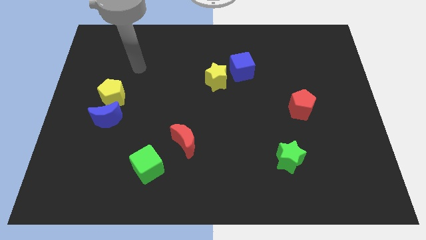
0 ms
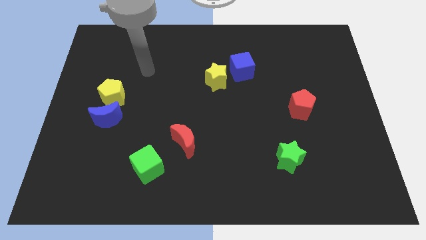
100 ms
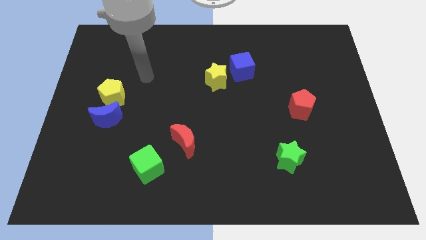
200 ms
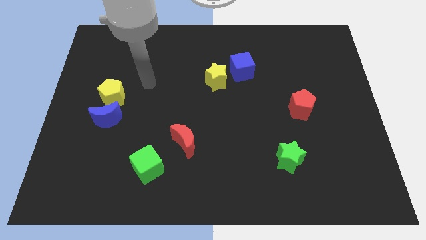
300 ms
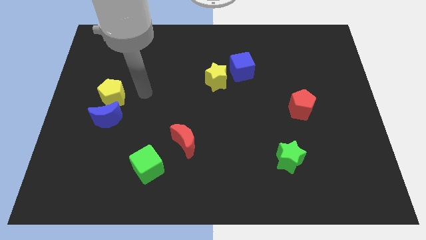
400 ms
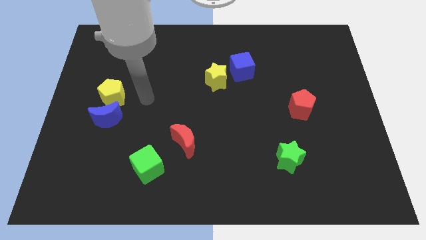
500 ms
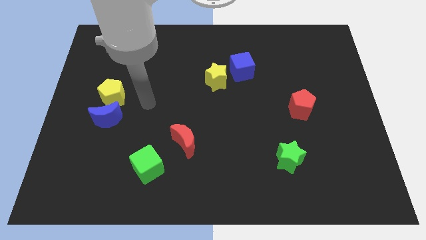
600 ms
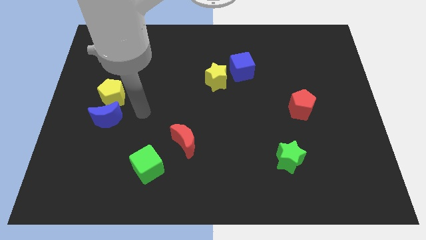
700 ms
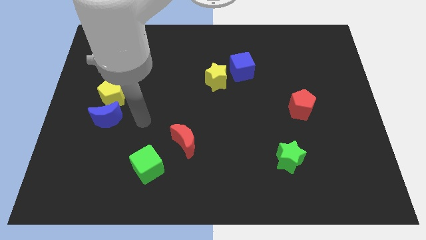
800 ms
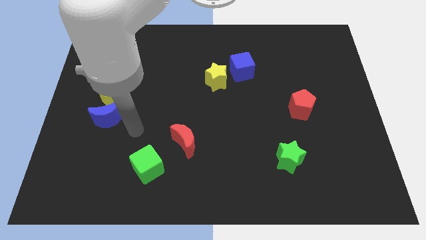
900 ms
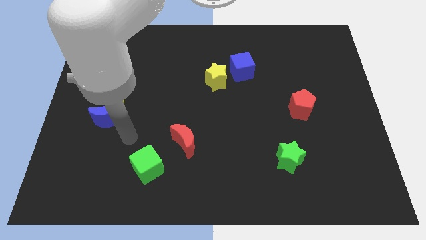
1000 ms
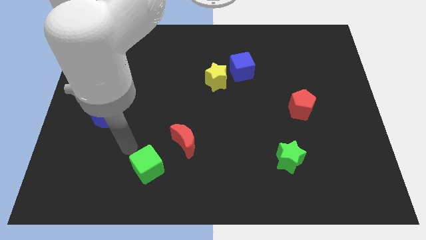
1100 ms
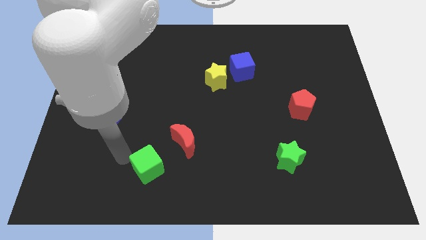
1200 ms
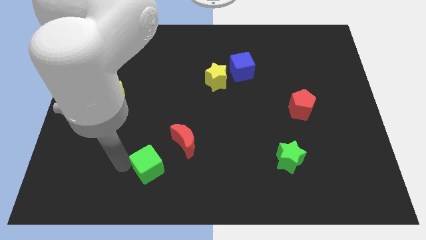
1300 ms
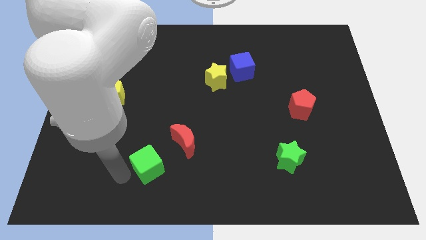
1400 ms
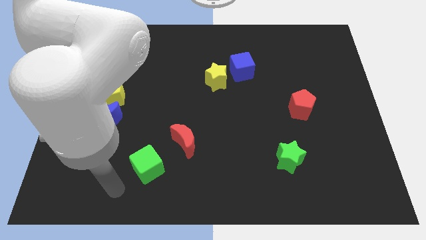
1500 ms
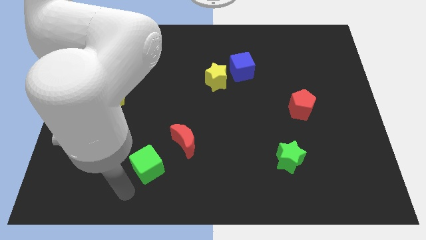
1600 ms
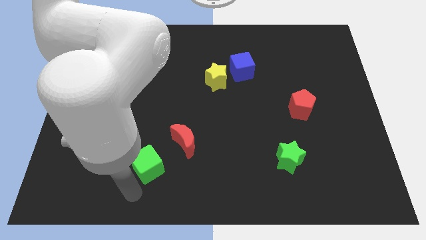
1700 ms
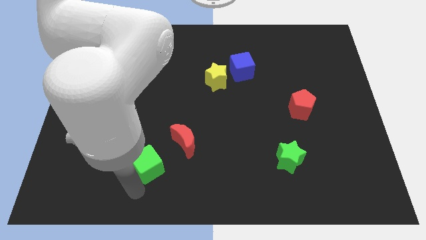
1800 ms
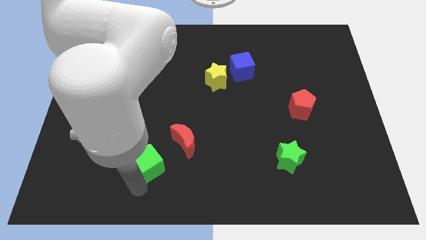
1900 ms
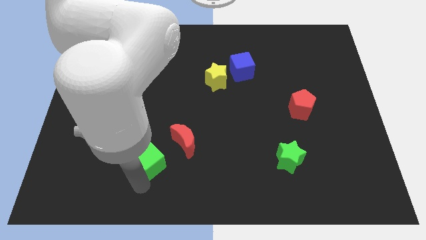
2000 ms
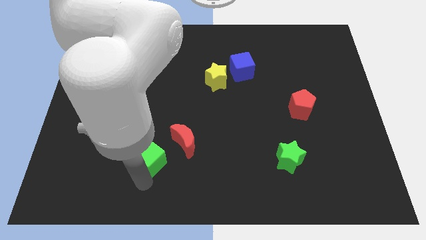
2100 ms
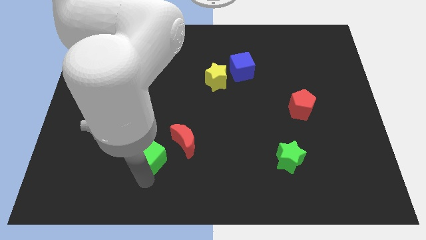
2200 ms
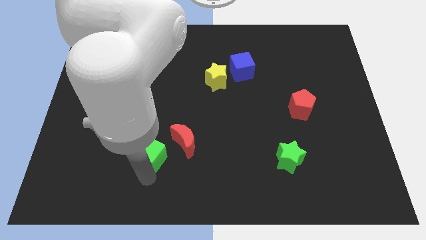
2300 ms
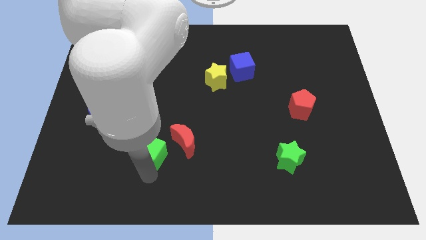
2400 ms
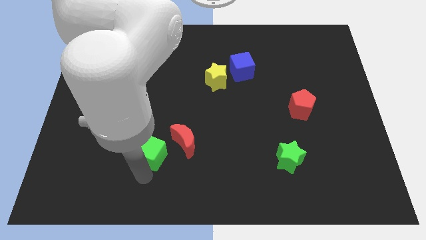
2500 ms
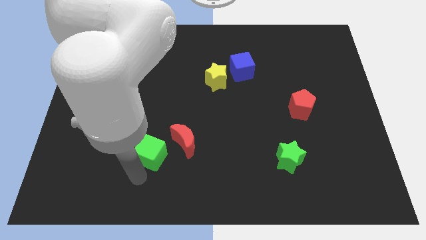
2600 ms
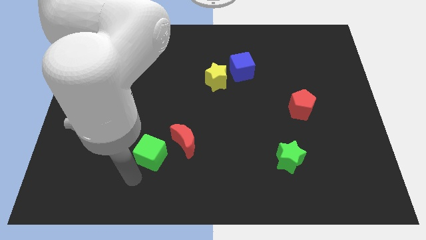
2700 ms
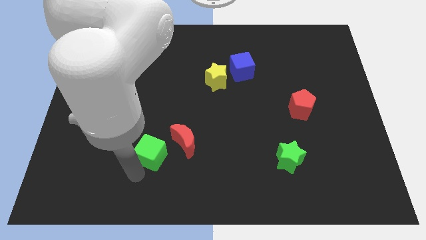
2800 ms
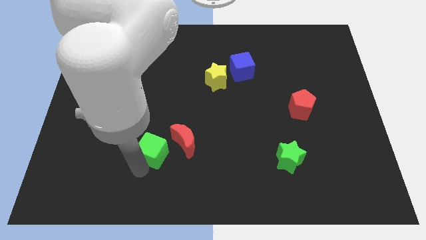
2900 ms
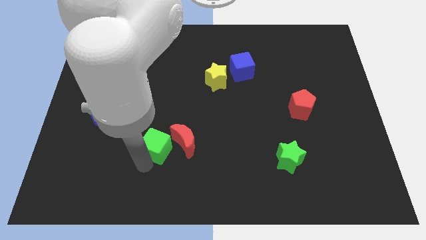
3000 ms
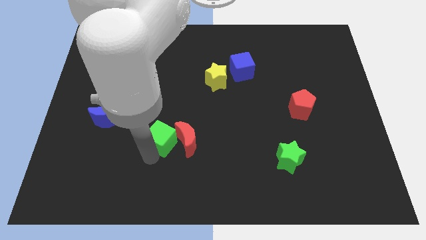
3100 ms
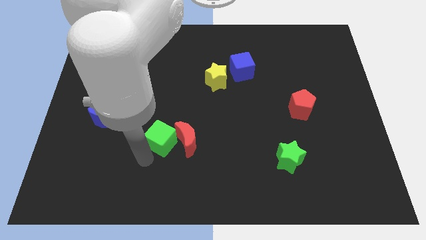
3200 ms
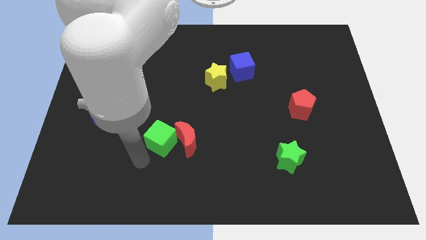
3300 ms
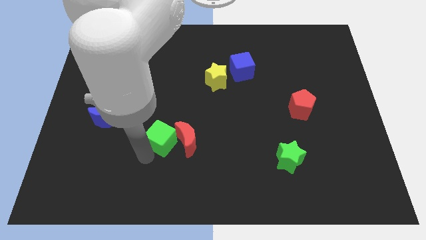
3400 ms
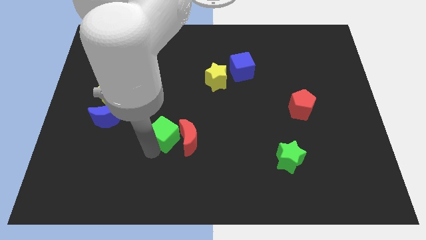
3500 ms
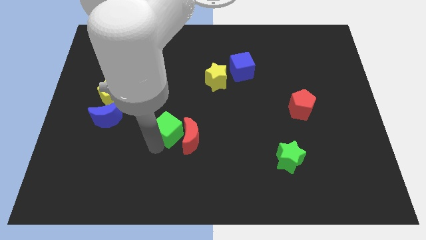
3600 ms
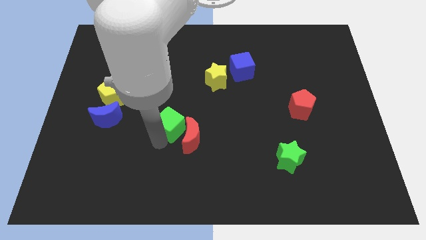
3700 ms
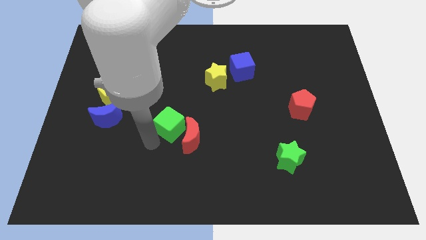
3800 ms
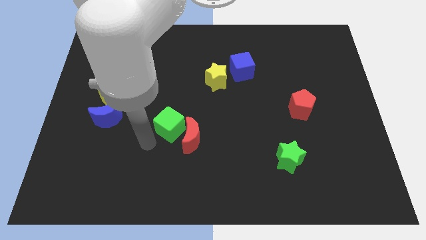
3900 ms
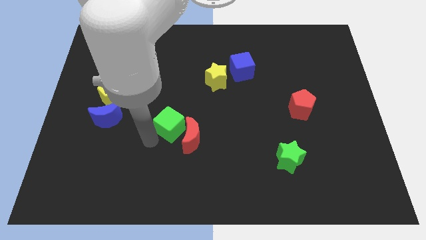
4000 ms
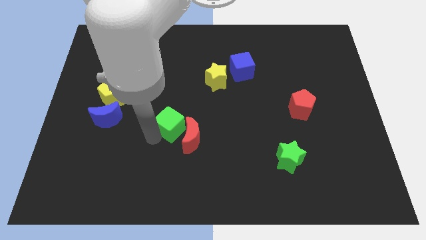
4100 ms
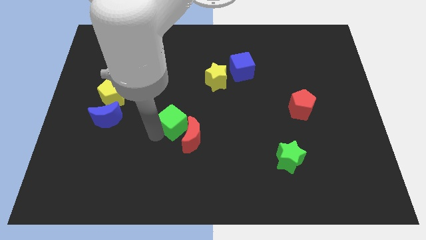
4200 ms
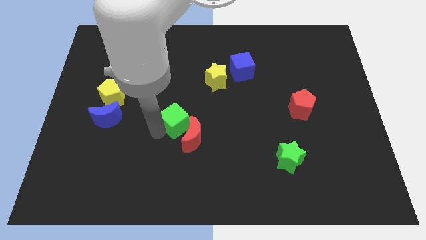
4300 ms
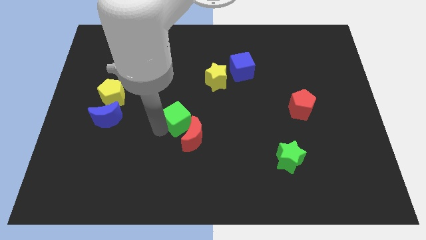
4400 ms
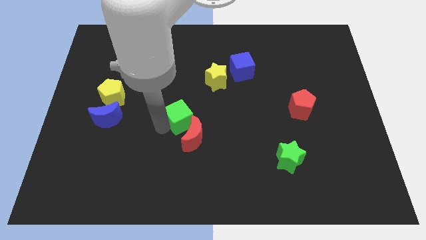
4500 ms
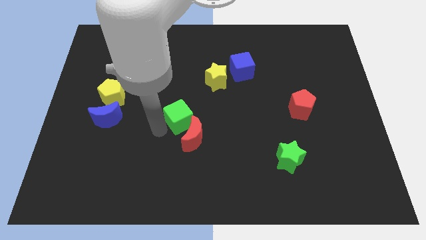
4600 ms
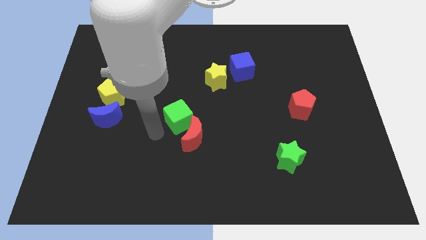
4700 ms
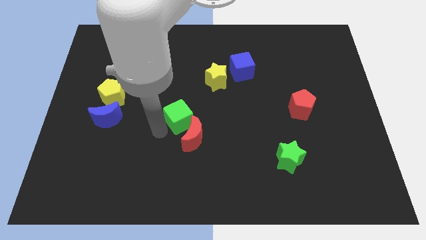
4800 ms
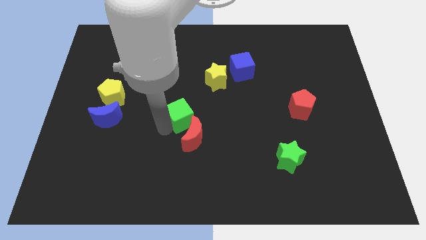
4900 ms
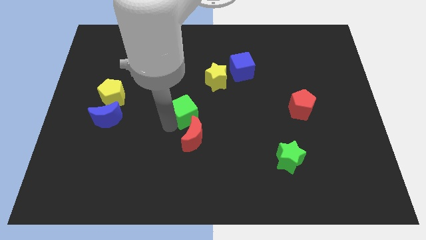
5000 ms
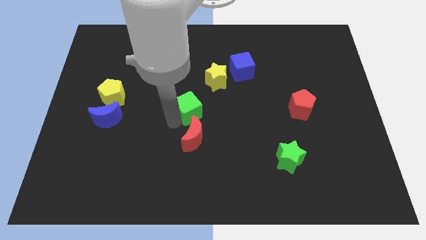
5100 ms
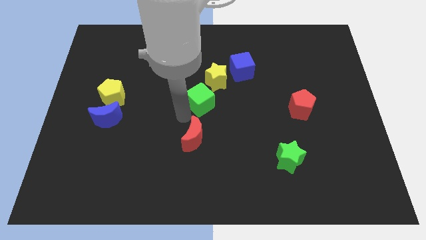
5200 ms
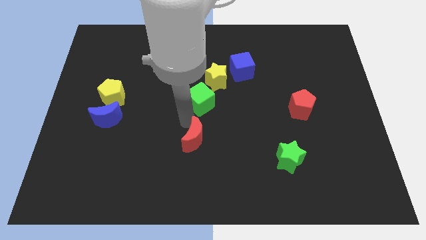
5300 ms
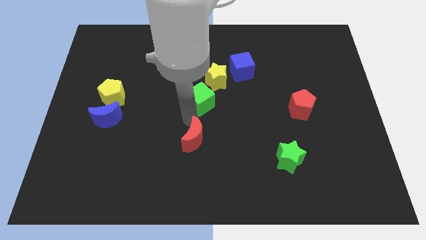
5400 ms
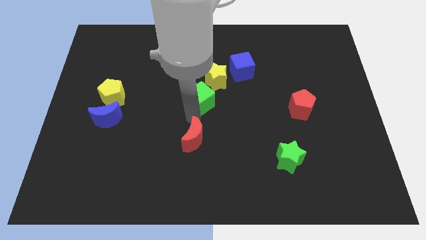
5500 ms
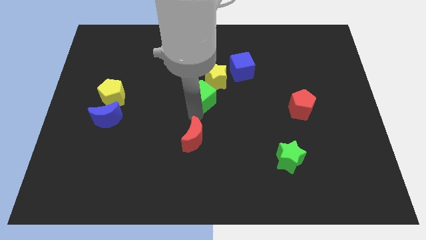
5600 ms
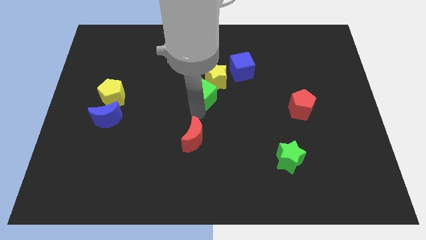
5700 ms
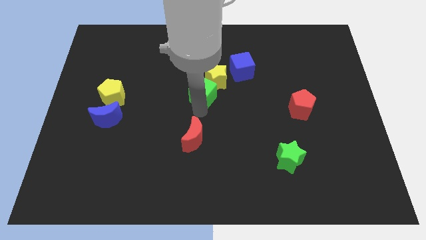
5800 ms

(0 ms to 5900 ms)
put the green cube towards the yellow star

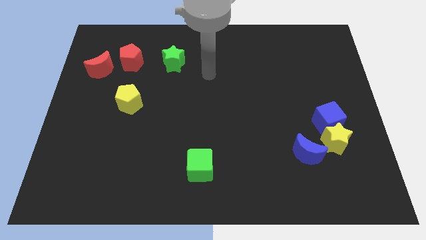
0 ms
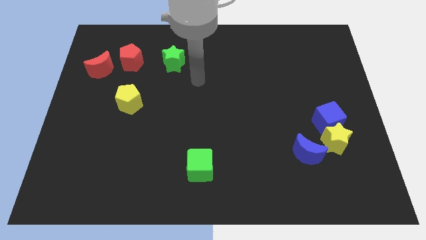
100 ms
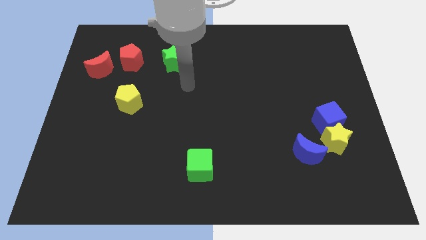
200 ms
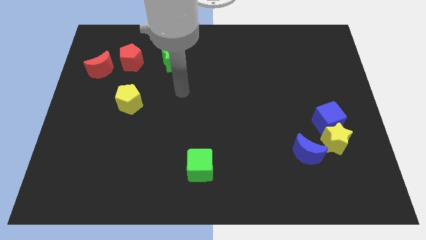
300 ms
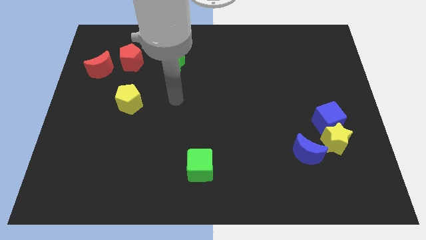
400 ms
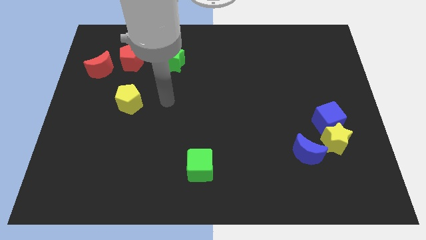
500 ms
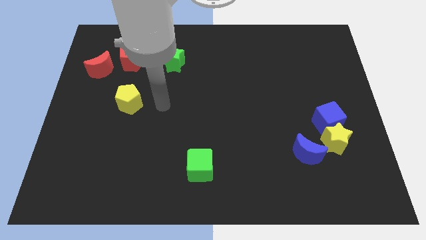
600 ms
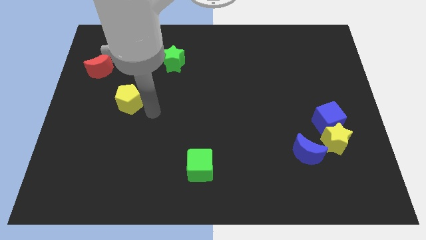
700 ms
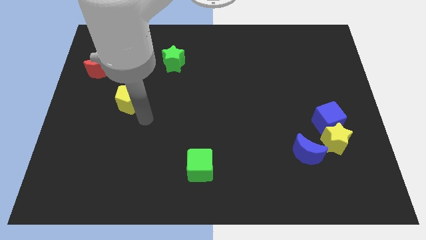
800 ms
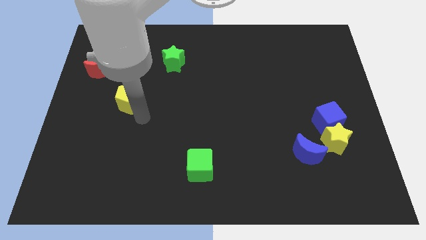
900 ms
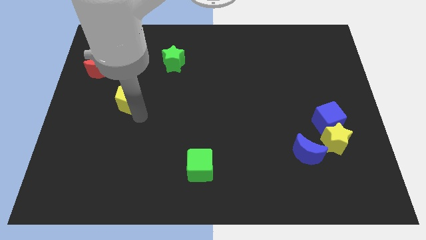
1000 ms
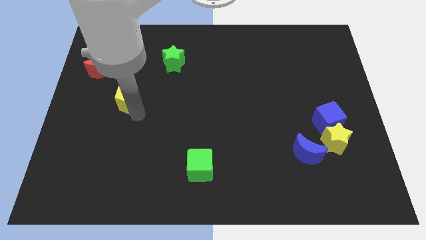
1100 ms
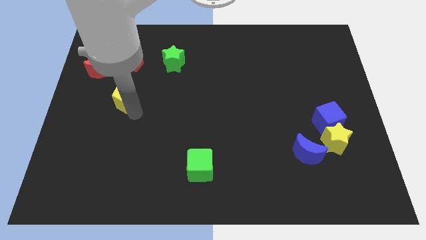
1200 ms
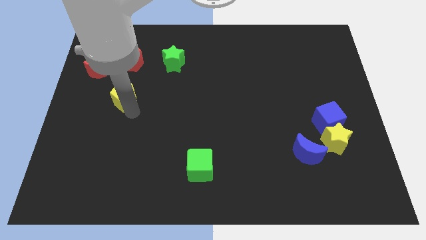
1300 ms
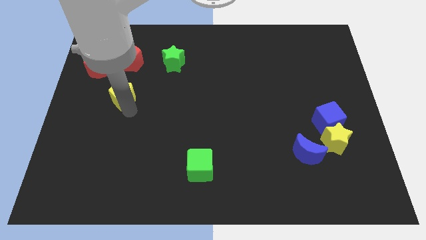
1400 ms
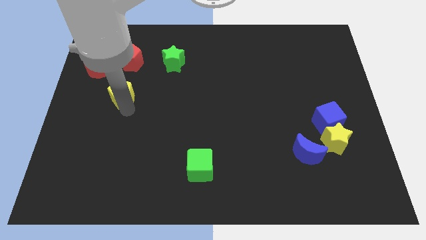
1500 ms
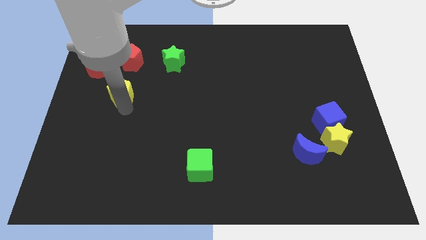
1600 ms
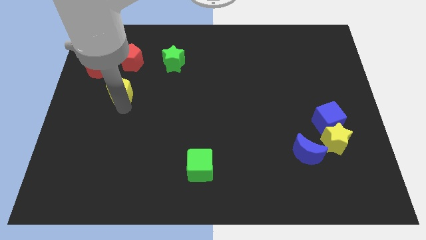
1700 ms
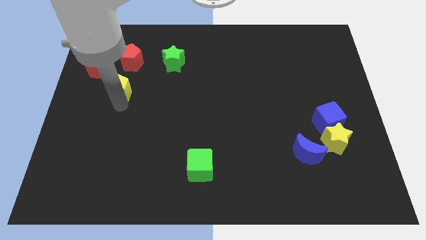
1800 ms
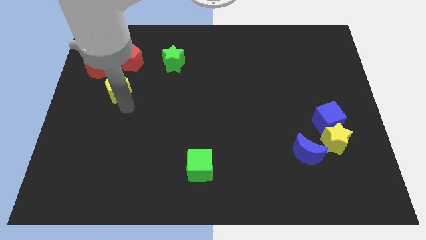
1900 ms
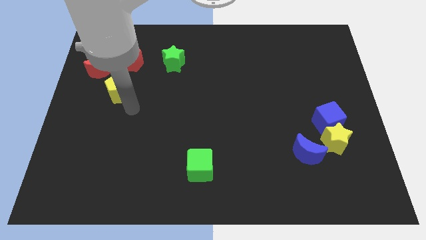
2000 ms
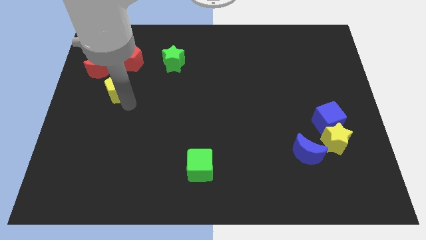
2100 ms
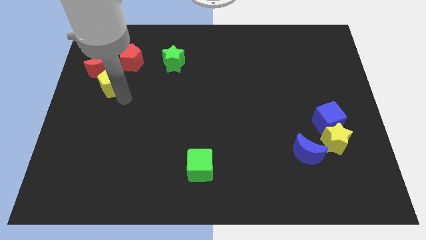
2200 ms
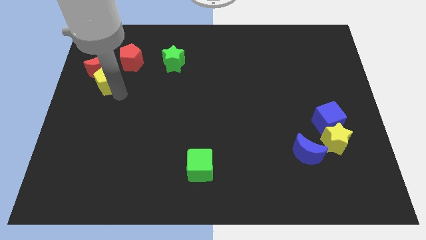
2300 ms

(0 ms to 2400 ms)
move the yellow pentagon towards the red moon
